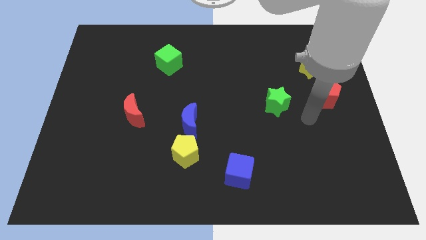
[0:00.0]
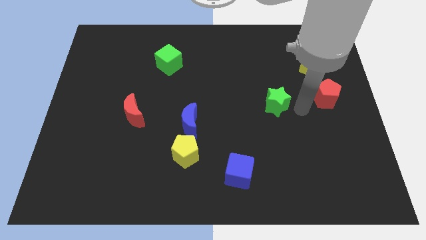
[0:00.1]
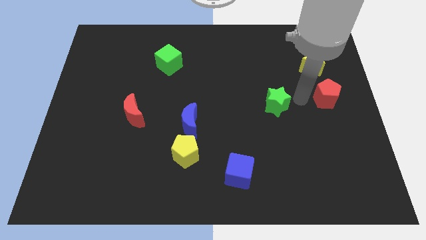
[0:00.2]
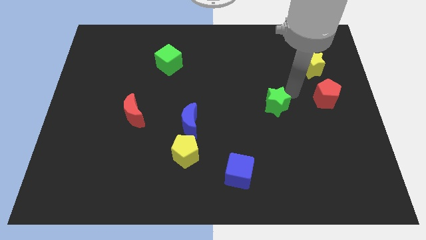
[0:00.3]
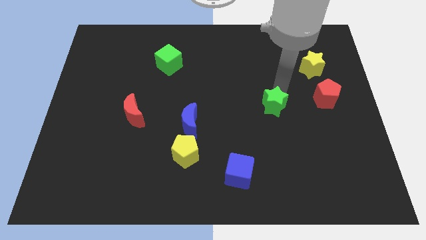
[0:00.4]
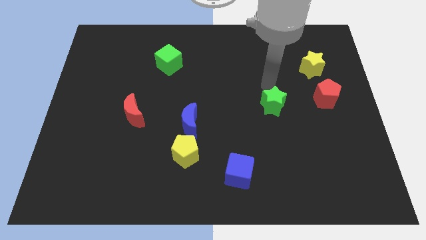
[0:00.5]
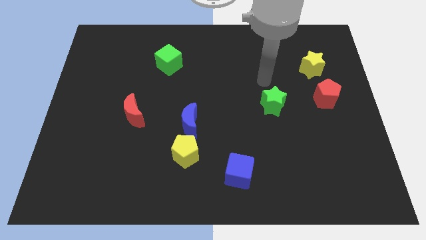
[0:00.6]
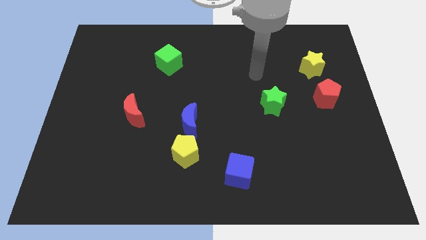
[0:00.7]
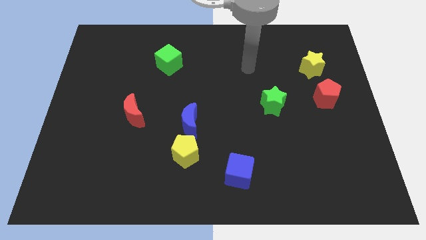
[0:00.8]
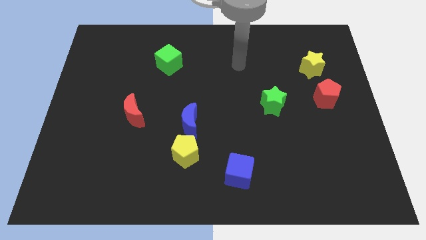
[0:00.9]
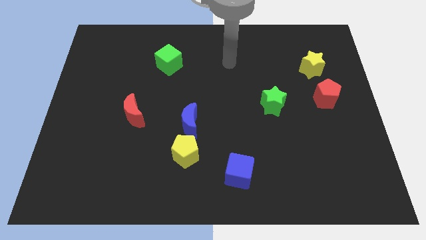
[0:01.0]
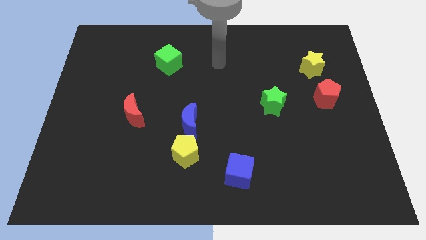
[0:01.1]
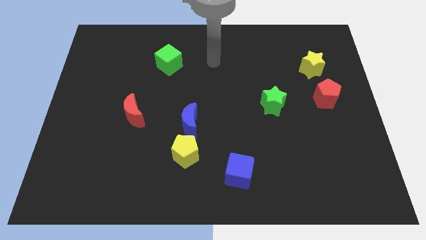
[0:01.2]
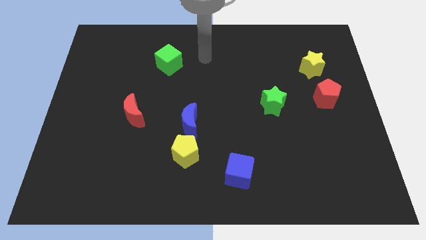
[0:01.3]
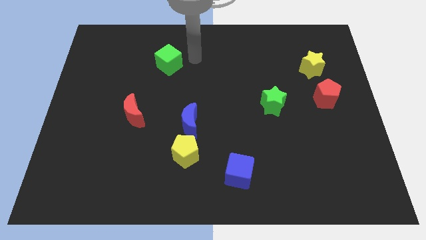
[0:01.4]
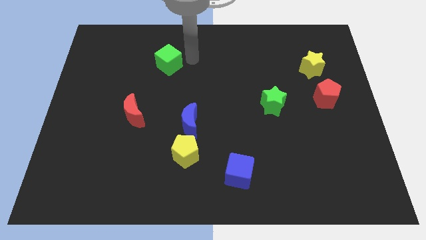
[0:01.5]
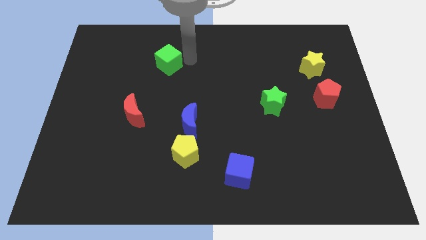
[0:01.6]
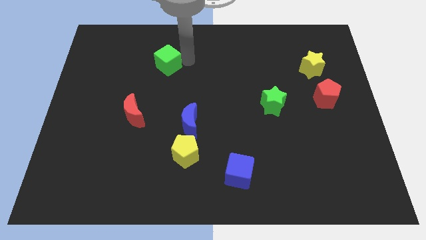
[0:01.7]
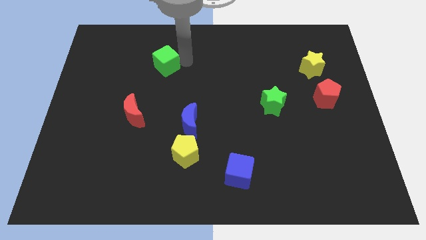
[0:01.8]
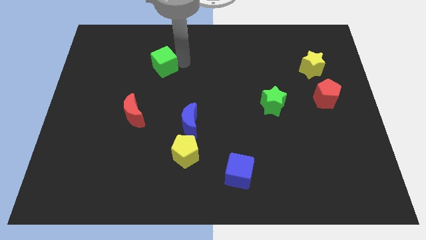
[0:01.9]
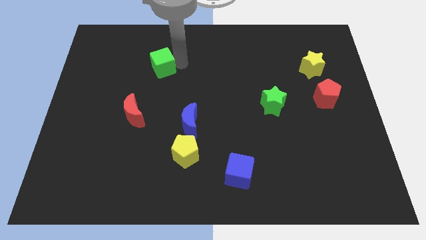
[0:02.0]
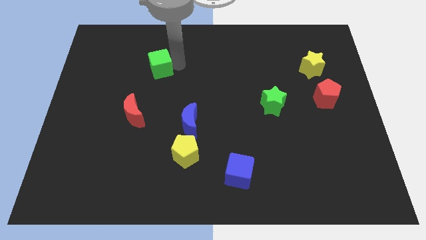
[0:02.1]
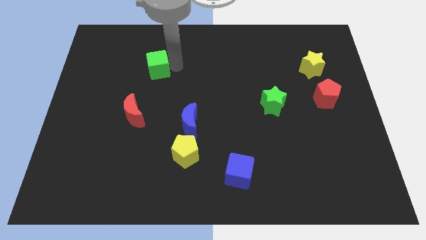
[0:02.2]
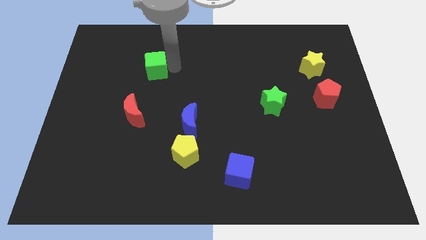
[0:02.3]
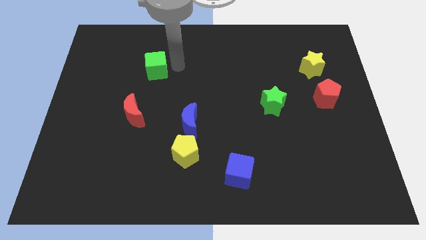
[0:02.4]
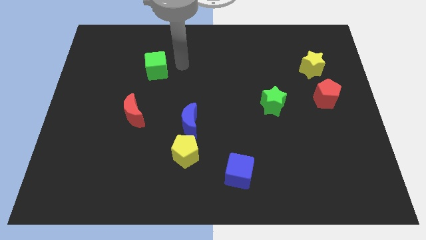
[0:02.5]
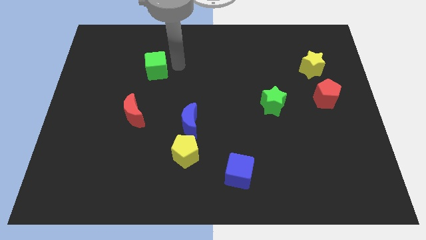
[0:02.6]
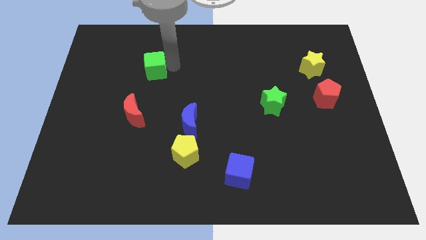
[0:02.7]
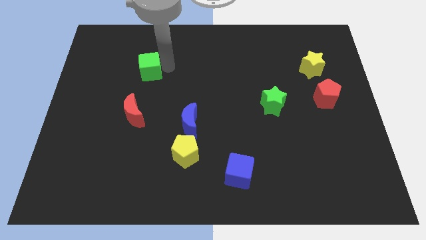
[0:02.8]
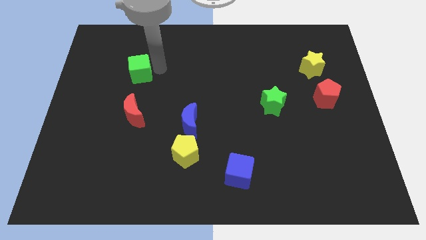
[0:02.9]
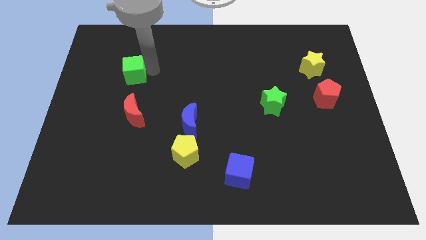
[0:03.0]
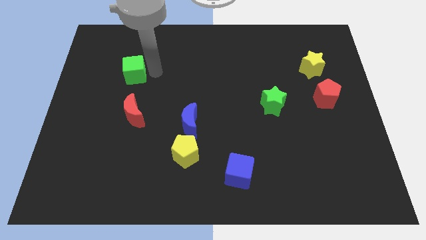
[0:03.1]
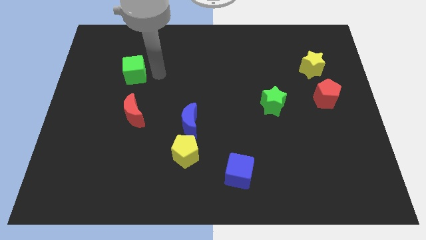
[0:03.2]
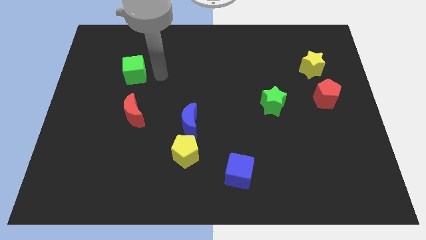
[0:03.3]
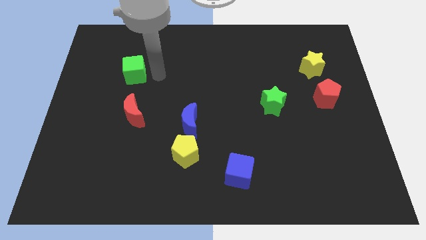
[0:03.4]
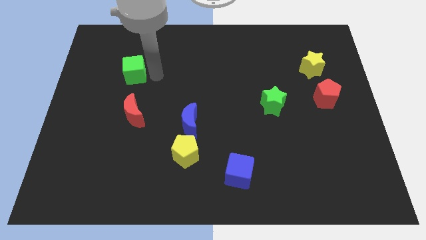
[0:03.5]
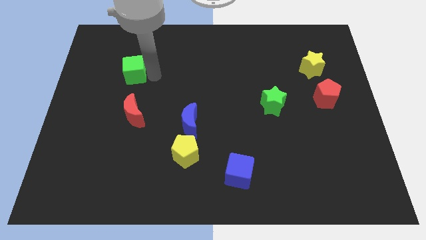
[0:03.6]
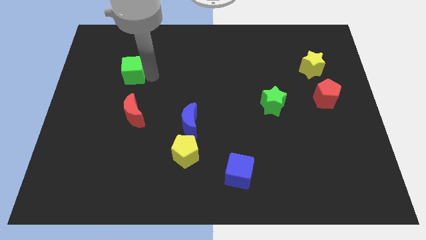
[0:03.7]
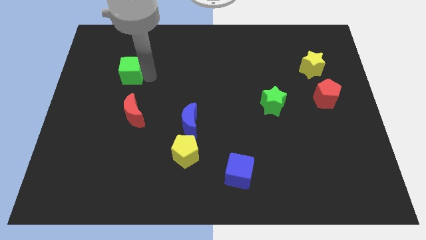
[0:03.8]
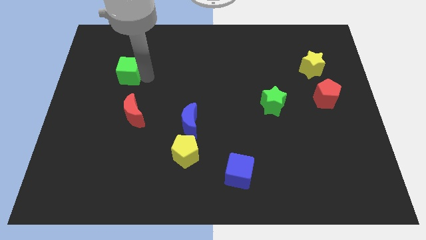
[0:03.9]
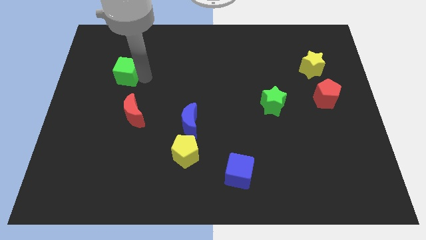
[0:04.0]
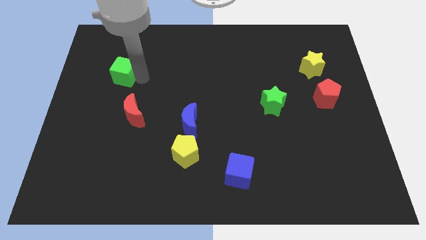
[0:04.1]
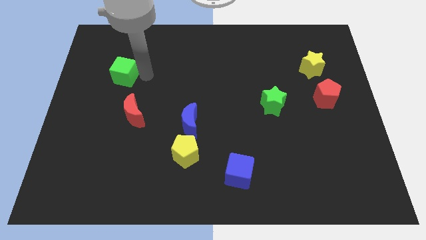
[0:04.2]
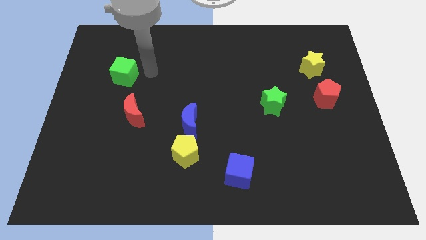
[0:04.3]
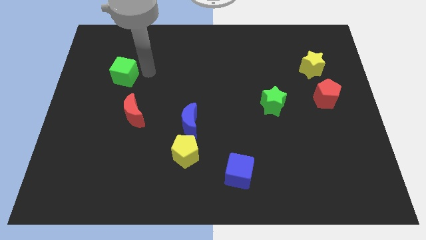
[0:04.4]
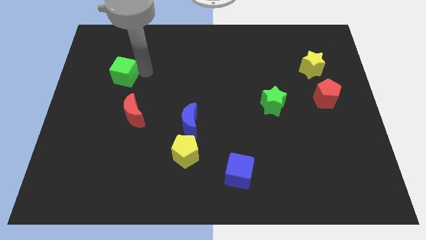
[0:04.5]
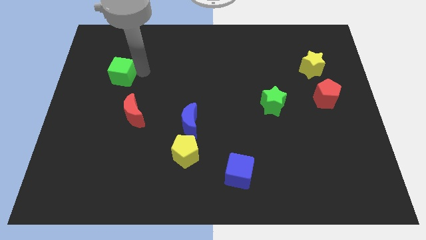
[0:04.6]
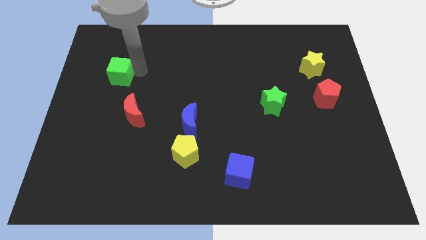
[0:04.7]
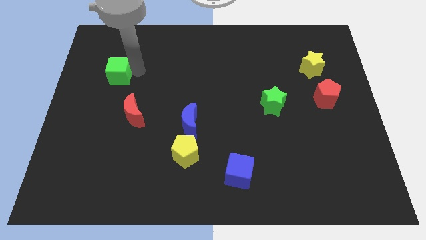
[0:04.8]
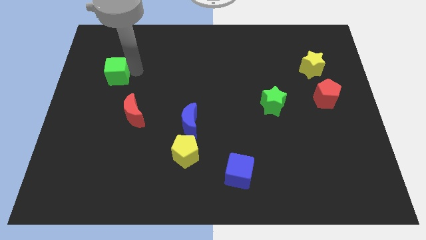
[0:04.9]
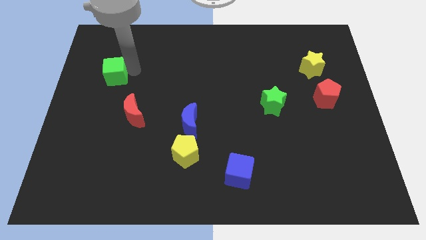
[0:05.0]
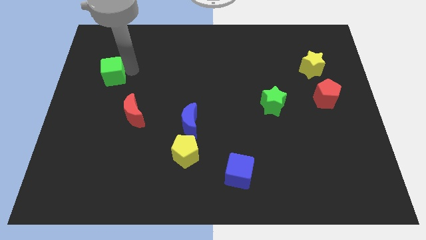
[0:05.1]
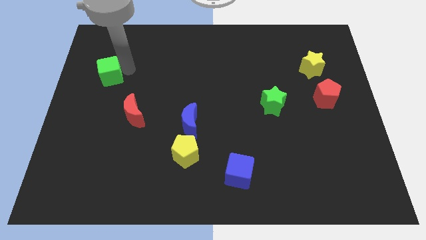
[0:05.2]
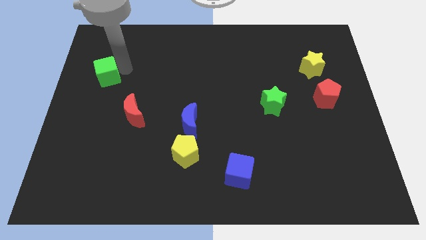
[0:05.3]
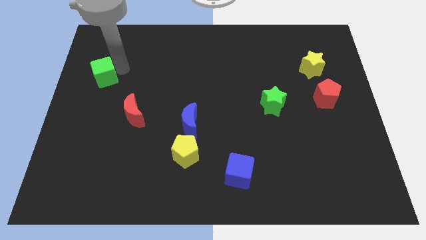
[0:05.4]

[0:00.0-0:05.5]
slide the green cube to the left side
